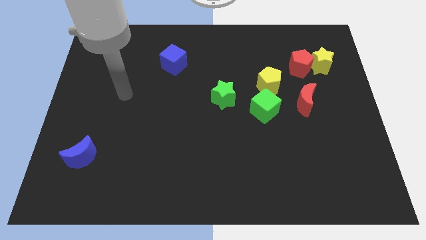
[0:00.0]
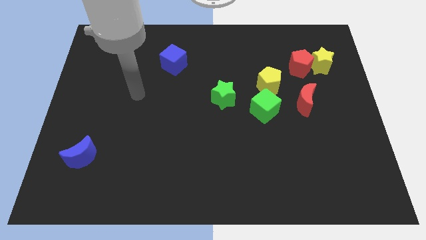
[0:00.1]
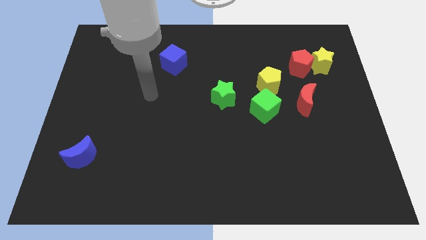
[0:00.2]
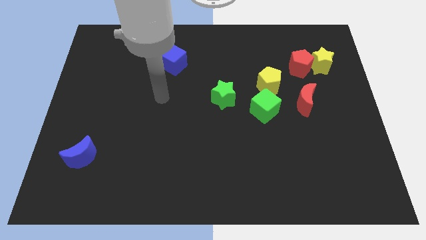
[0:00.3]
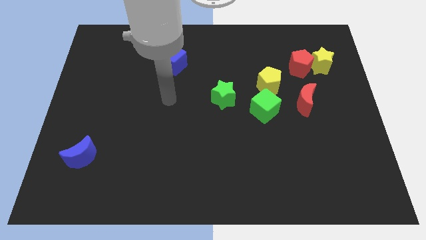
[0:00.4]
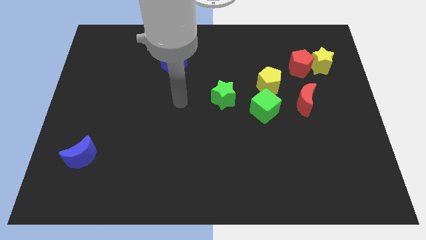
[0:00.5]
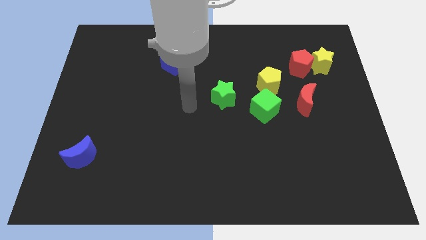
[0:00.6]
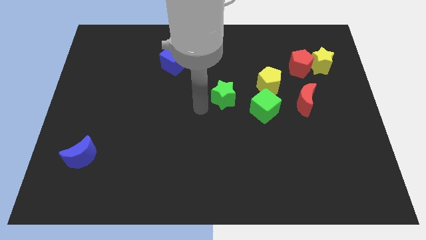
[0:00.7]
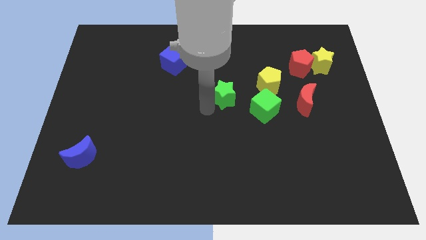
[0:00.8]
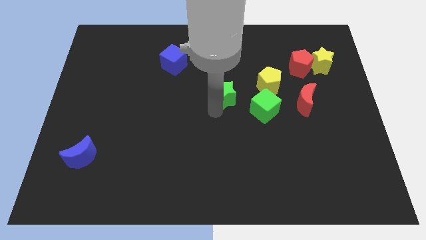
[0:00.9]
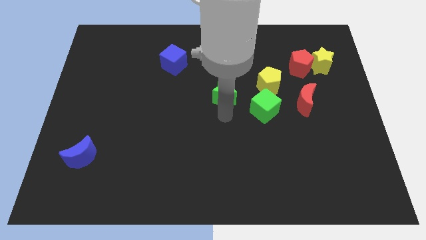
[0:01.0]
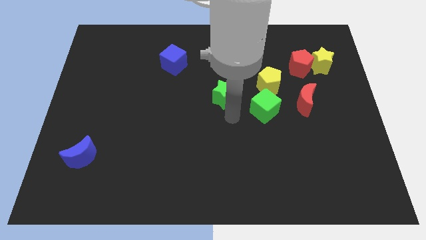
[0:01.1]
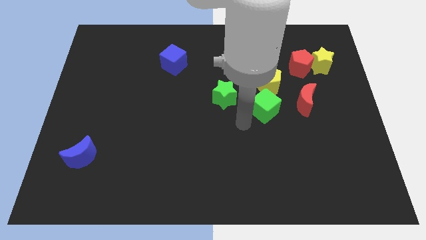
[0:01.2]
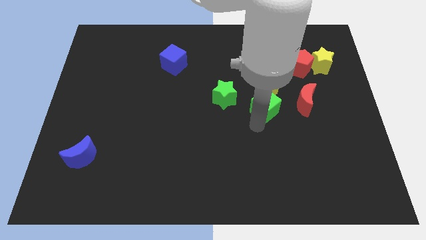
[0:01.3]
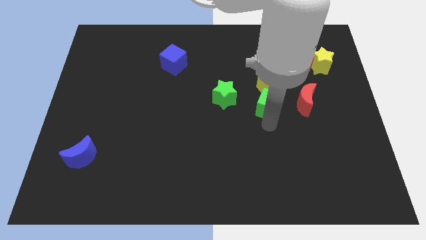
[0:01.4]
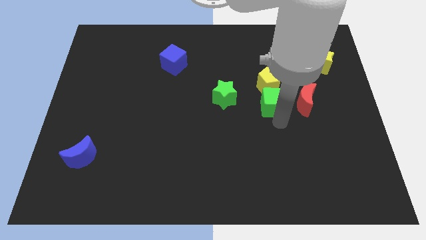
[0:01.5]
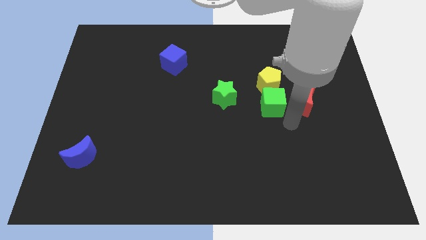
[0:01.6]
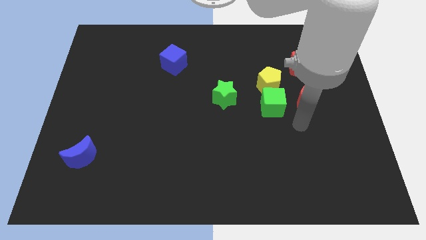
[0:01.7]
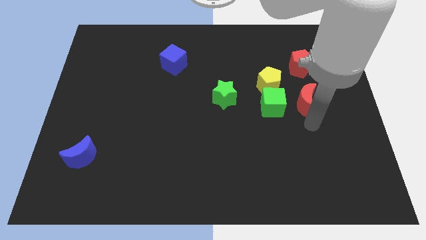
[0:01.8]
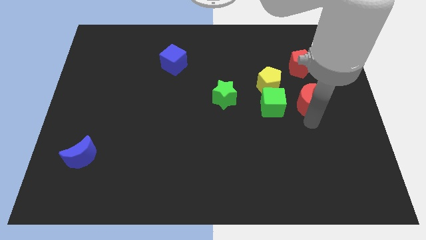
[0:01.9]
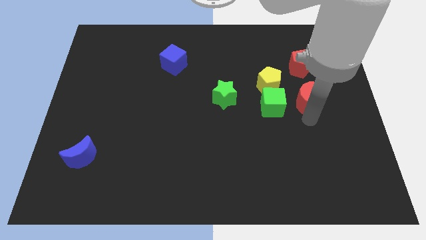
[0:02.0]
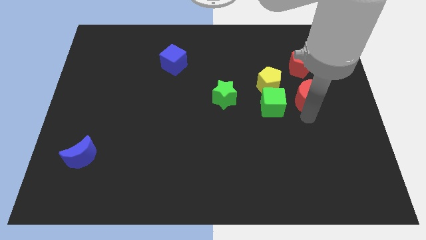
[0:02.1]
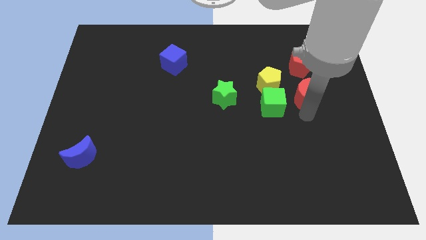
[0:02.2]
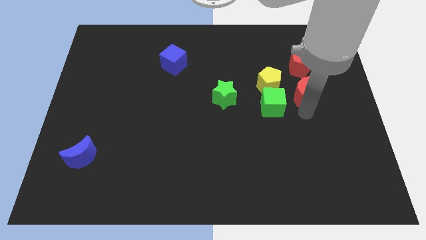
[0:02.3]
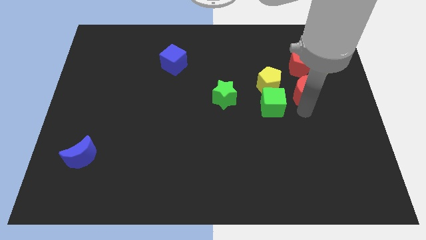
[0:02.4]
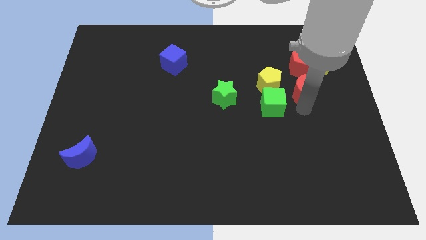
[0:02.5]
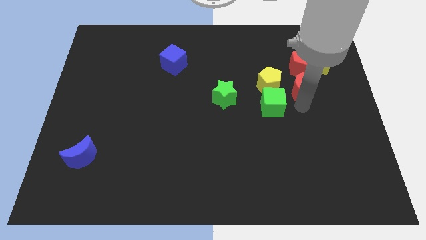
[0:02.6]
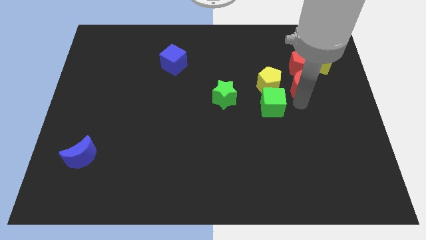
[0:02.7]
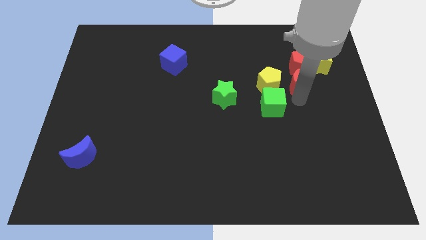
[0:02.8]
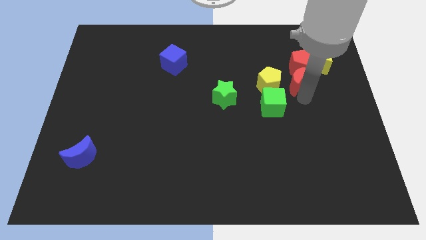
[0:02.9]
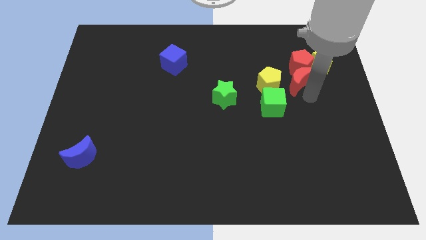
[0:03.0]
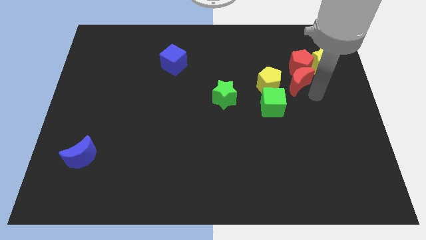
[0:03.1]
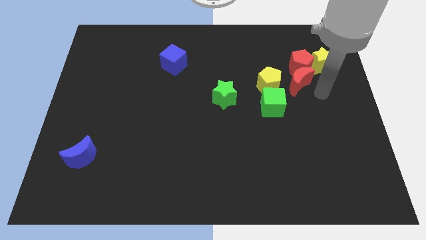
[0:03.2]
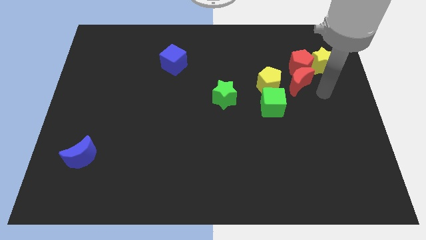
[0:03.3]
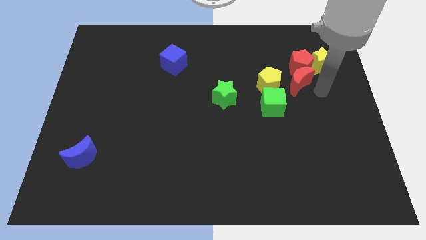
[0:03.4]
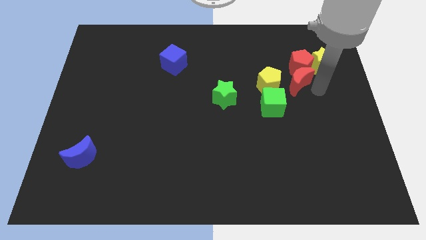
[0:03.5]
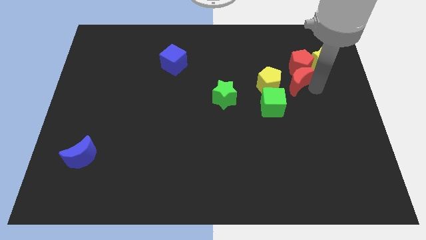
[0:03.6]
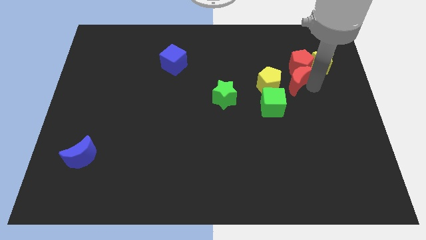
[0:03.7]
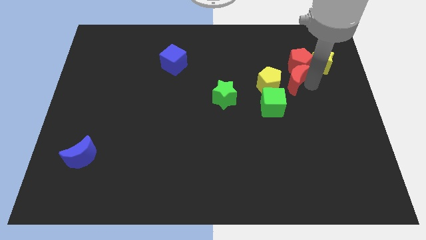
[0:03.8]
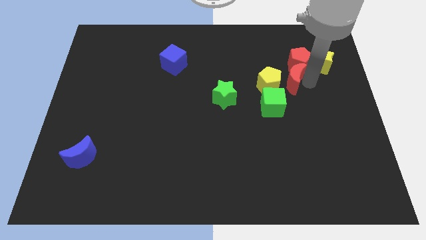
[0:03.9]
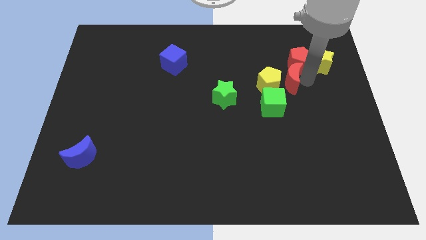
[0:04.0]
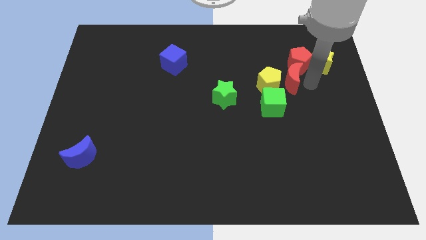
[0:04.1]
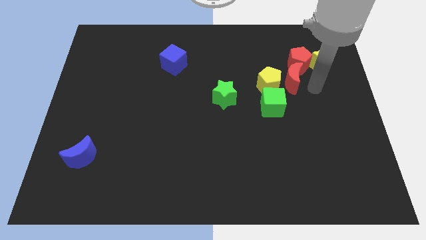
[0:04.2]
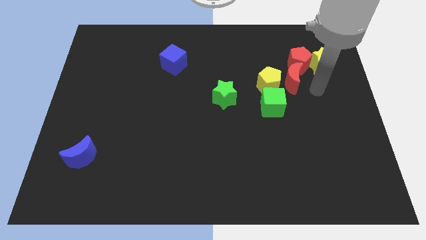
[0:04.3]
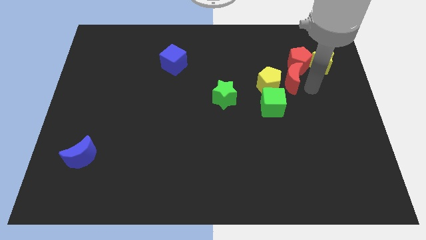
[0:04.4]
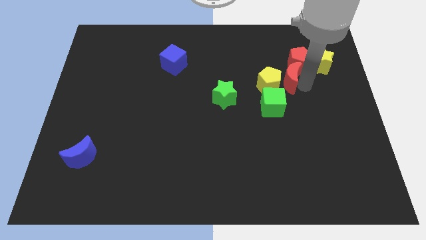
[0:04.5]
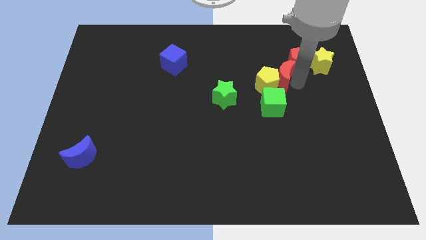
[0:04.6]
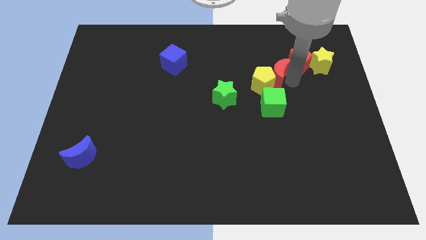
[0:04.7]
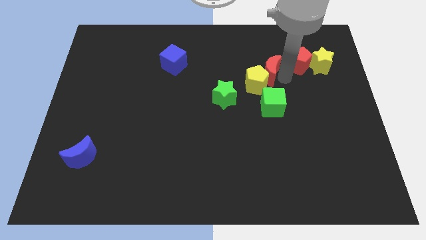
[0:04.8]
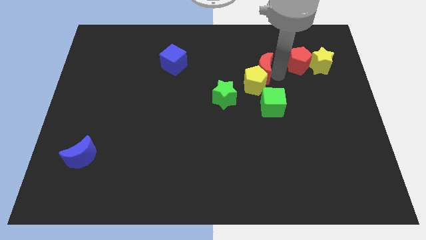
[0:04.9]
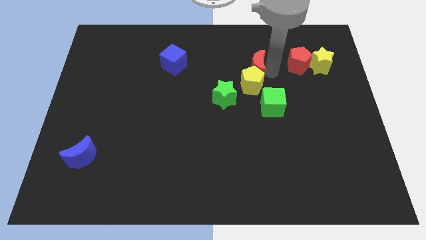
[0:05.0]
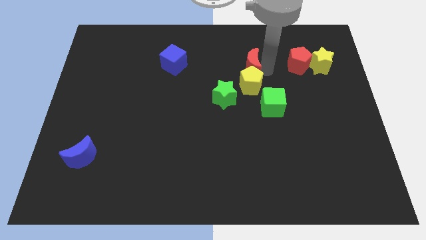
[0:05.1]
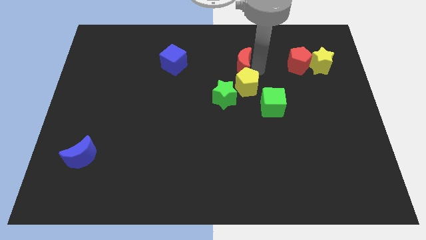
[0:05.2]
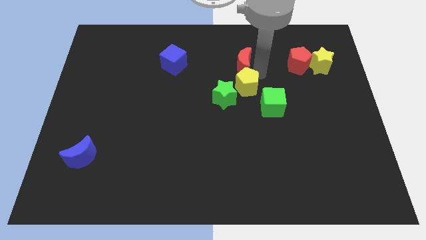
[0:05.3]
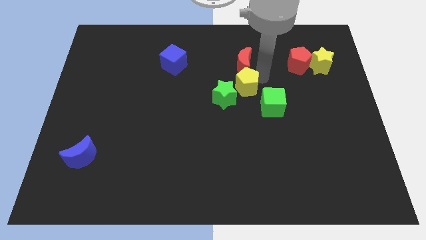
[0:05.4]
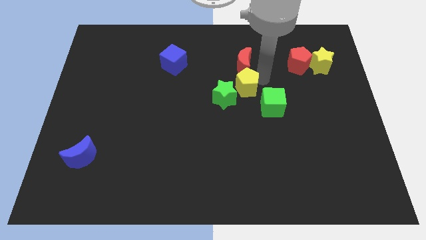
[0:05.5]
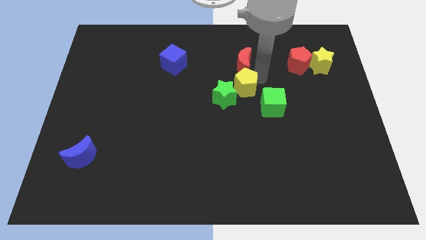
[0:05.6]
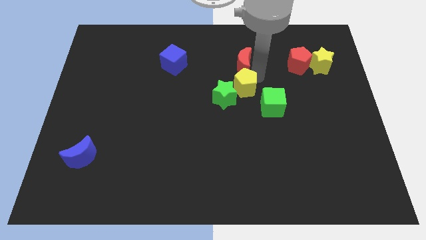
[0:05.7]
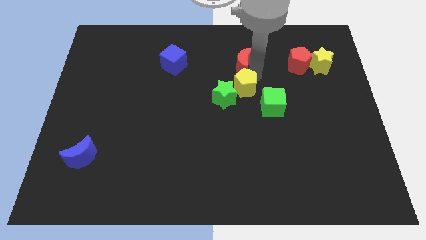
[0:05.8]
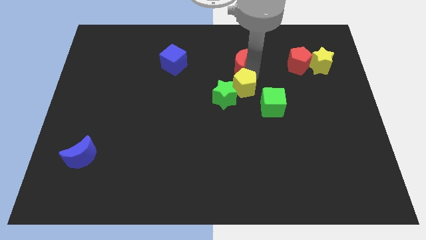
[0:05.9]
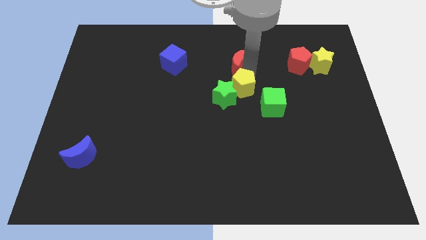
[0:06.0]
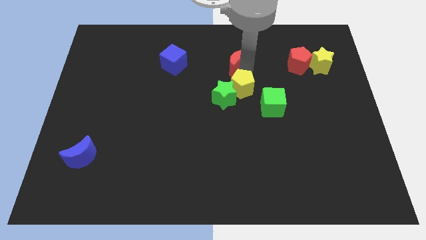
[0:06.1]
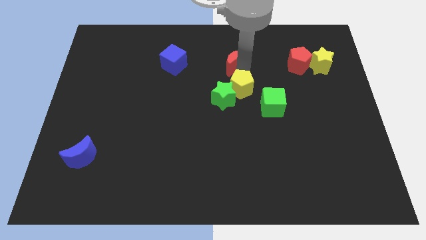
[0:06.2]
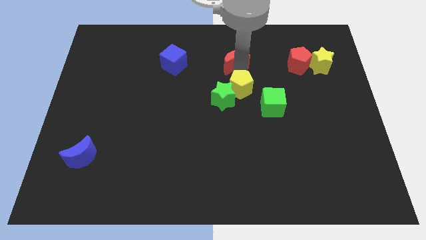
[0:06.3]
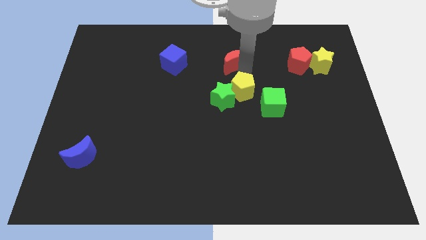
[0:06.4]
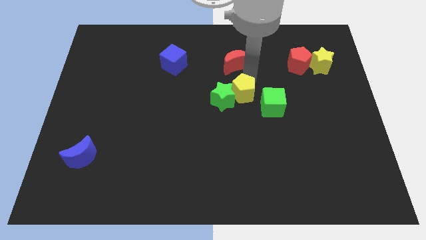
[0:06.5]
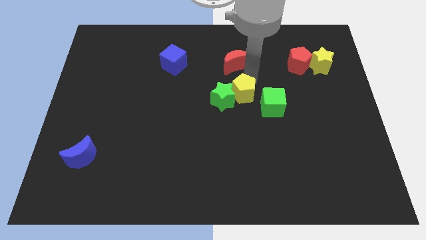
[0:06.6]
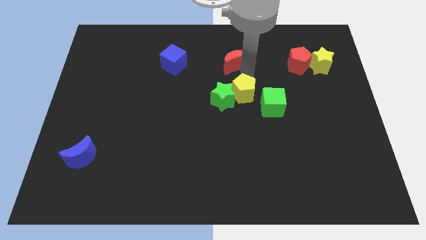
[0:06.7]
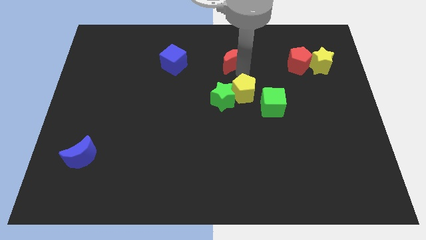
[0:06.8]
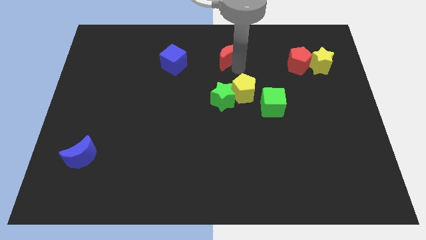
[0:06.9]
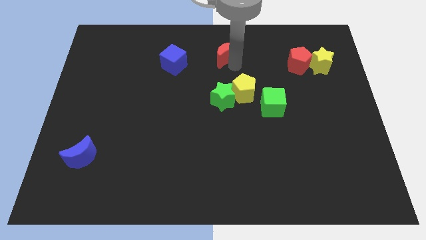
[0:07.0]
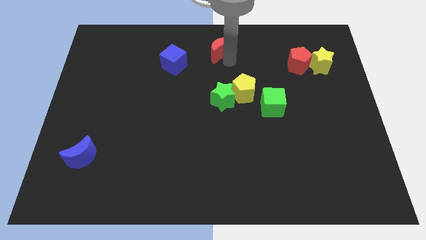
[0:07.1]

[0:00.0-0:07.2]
slide the red moon to the top side
